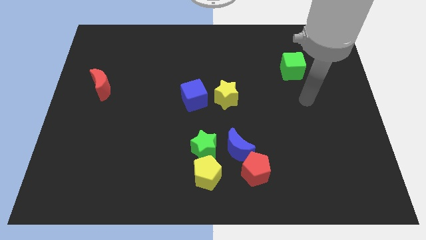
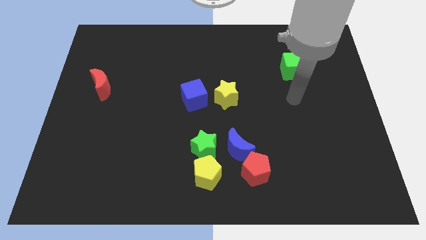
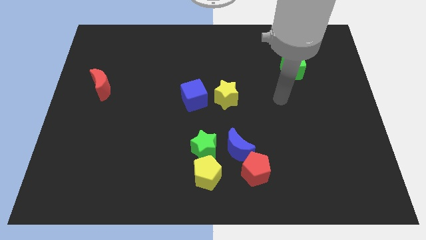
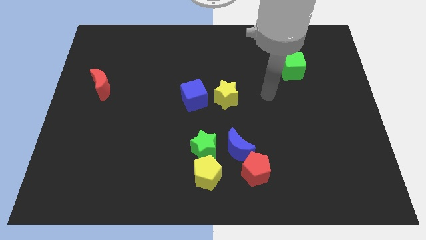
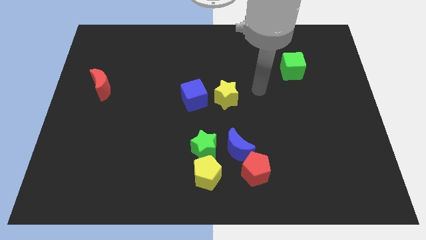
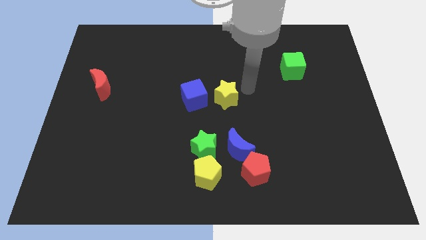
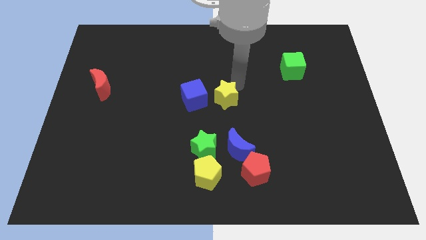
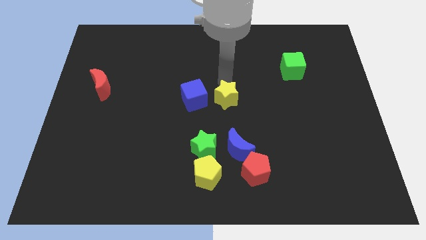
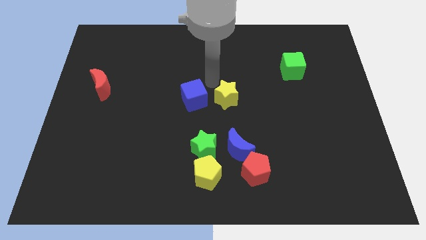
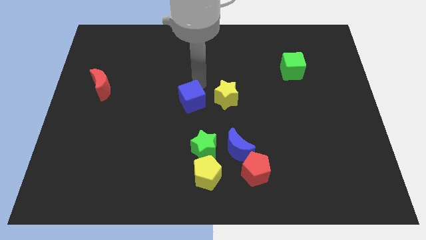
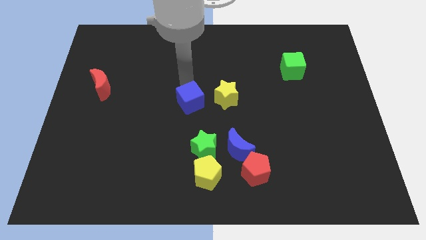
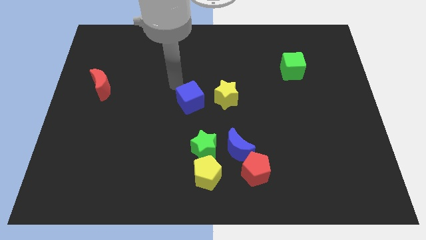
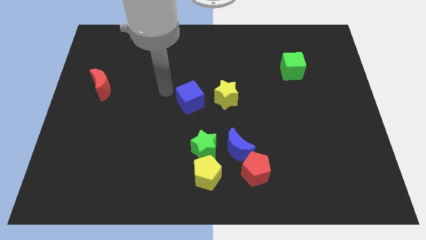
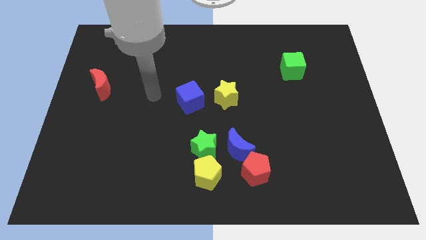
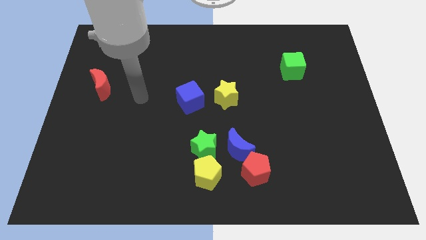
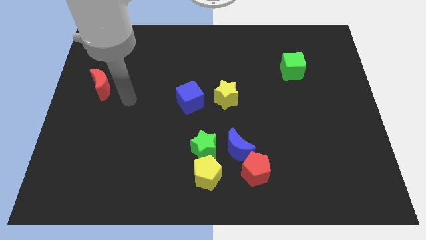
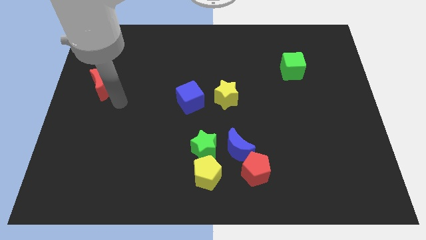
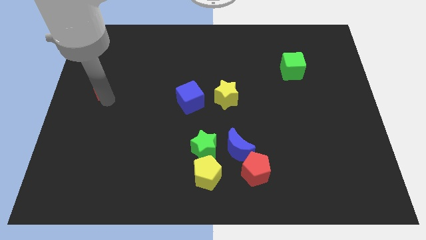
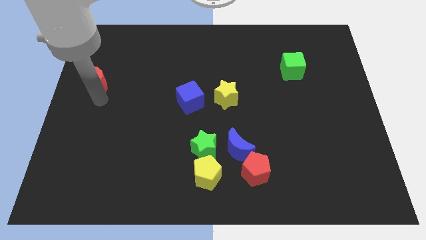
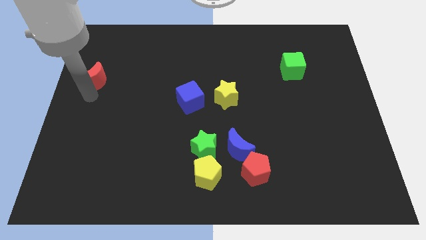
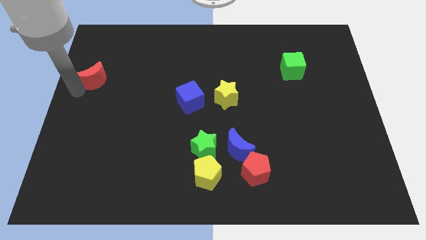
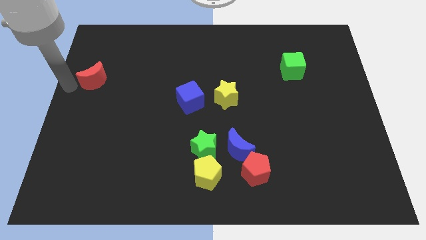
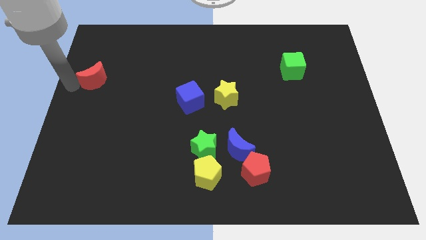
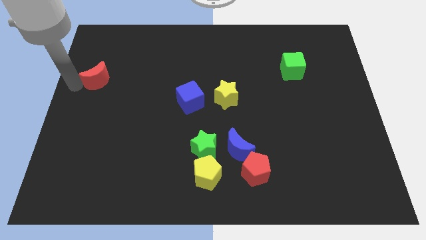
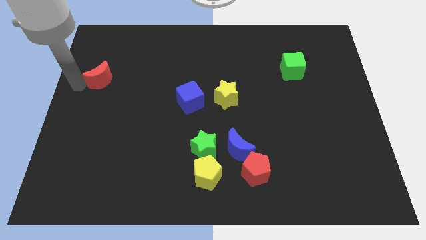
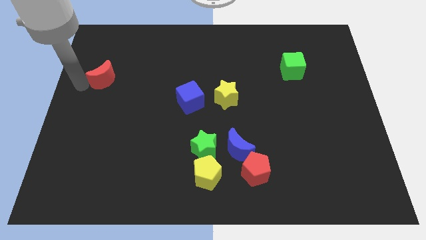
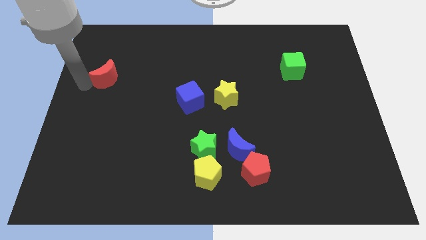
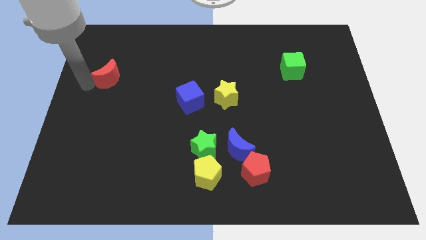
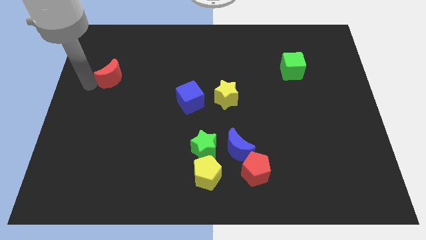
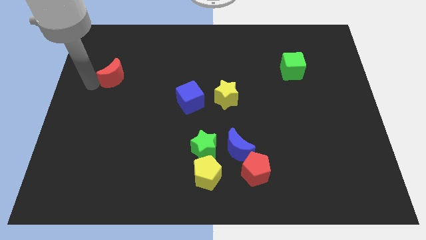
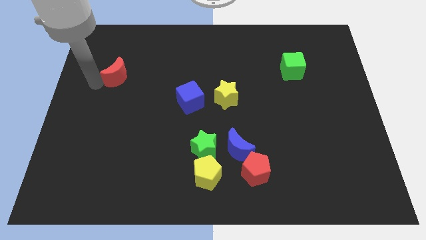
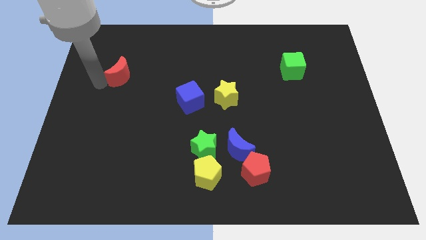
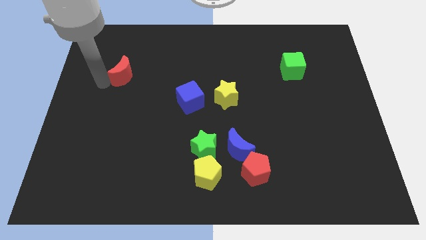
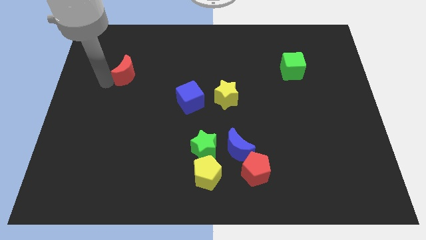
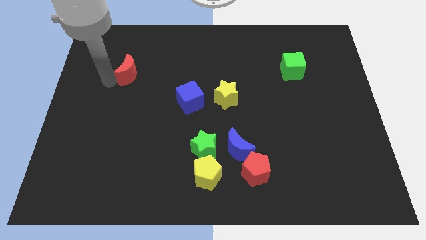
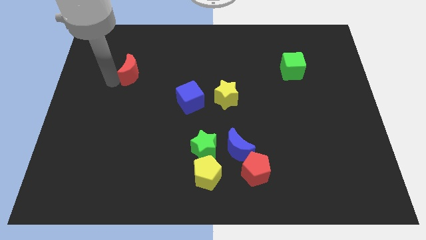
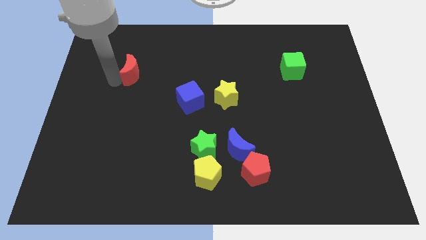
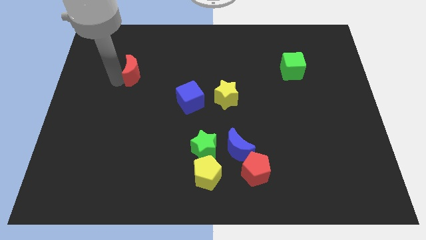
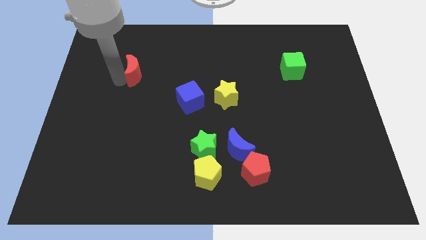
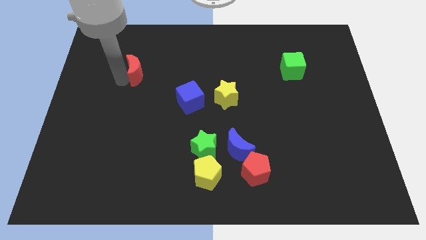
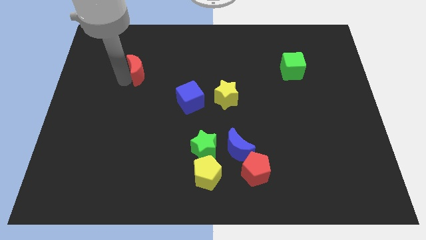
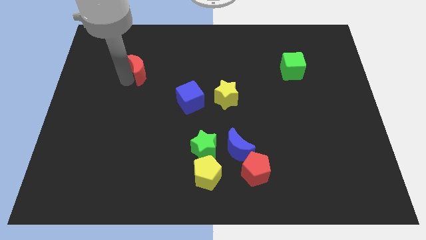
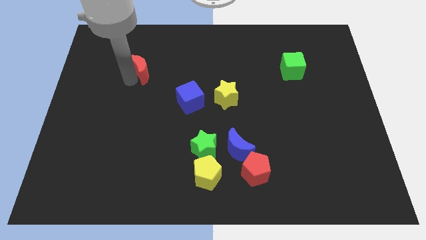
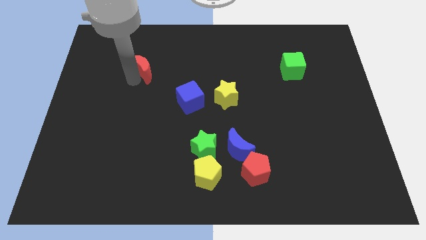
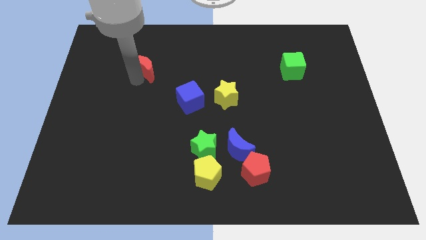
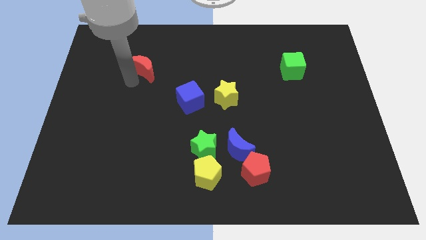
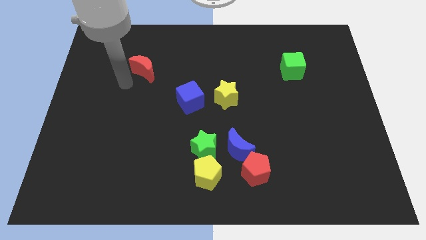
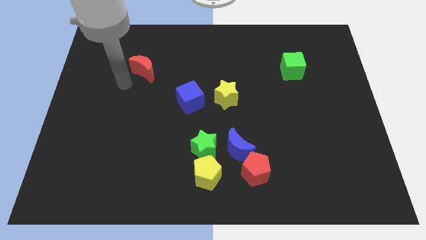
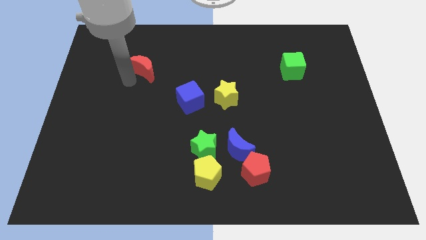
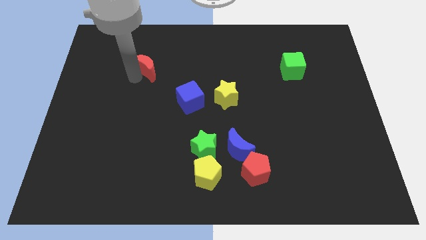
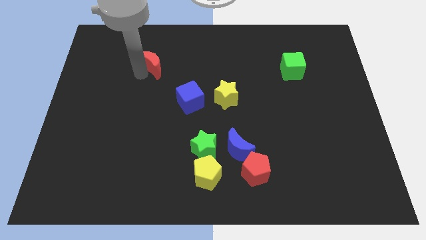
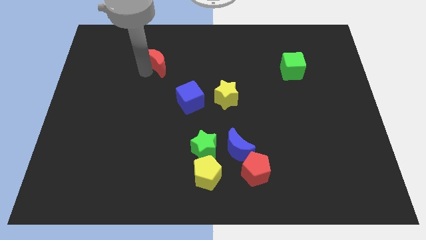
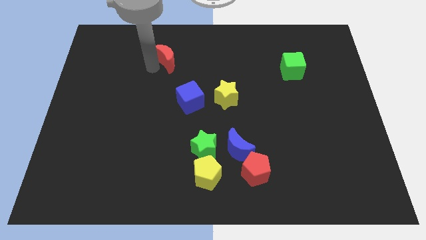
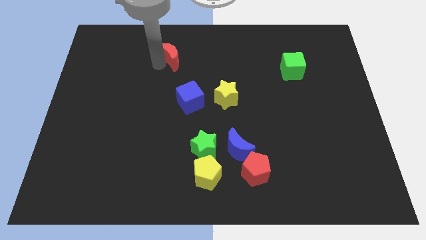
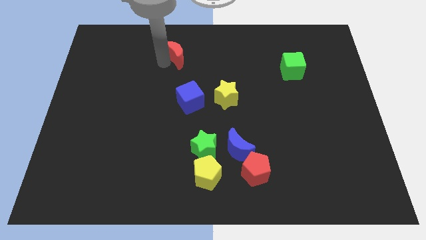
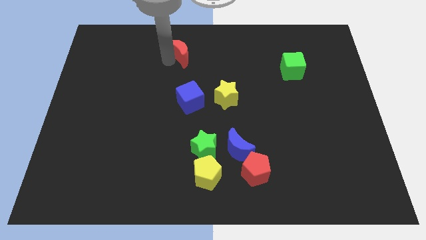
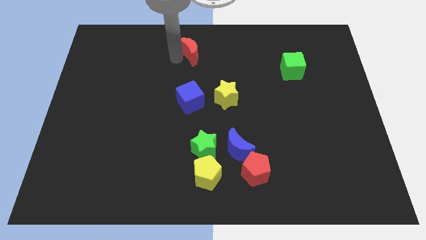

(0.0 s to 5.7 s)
put the red moon to the towards your base

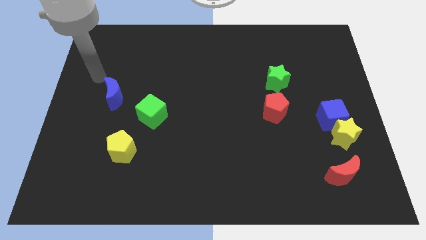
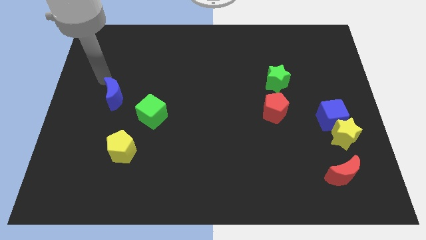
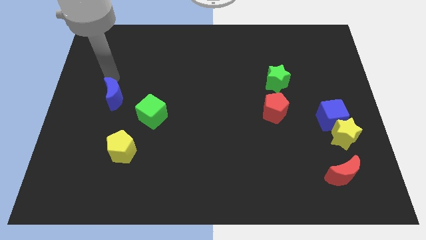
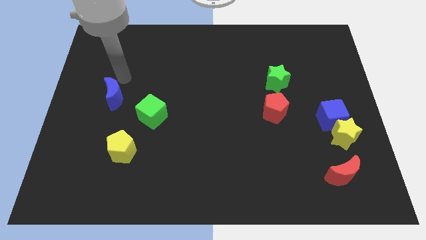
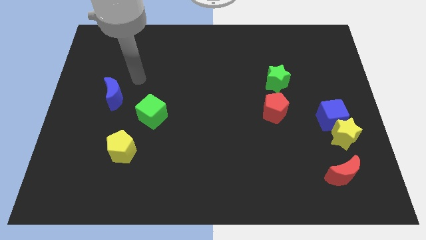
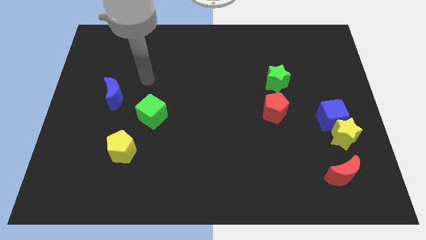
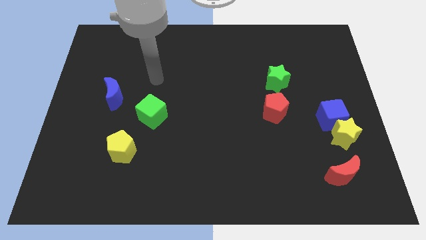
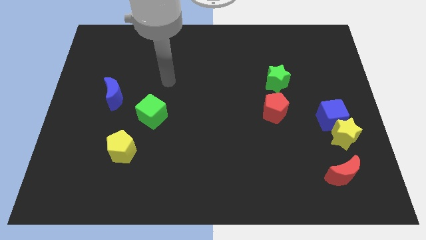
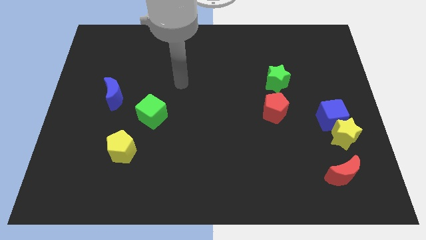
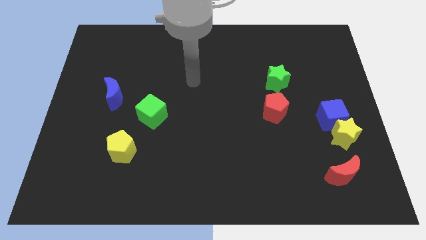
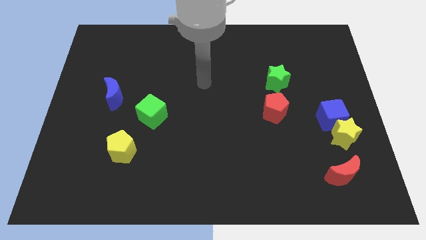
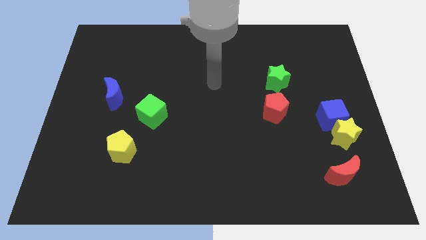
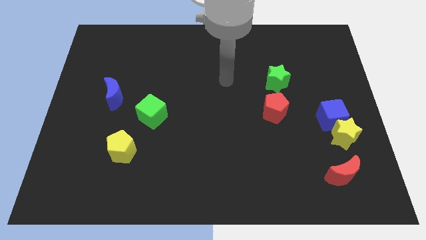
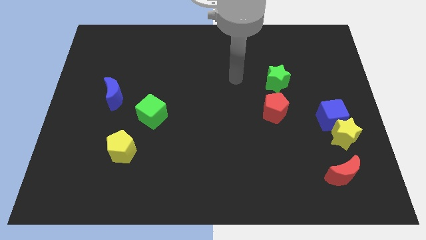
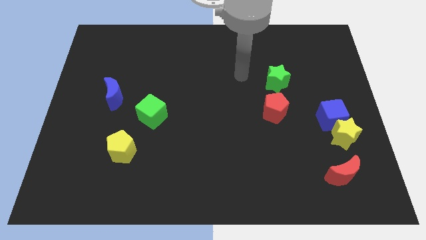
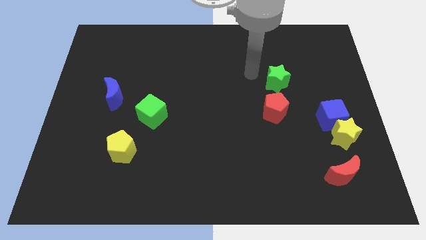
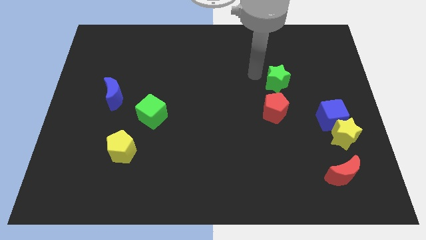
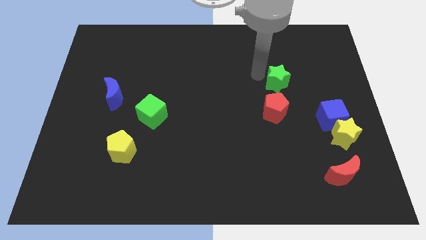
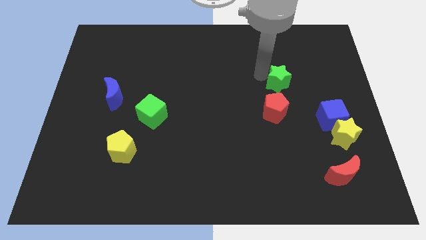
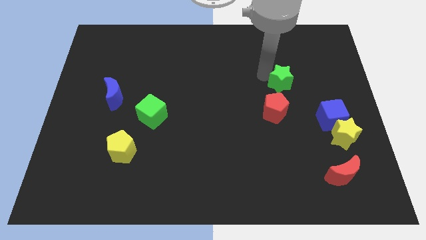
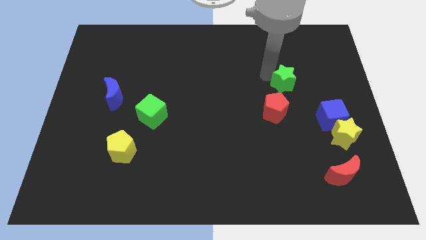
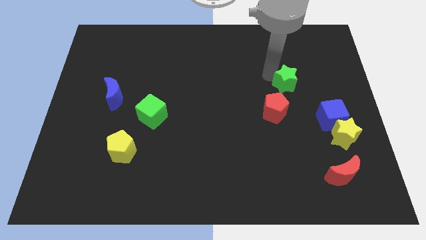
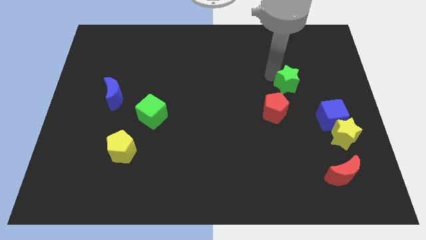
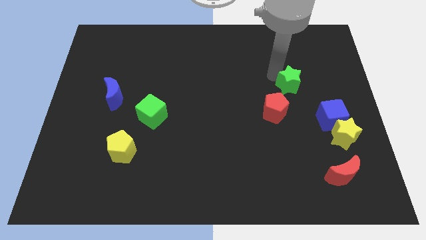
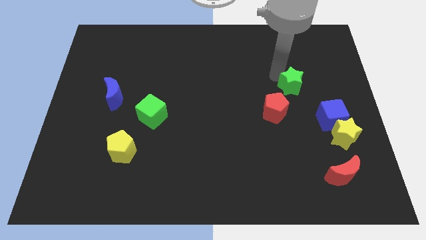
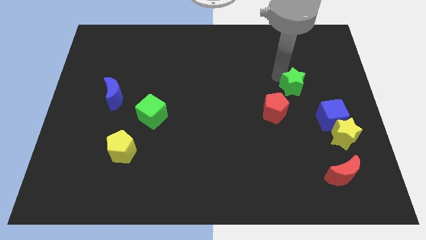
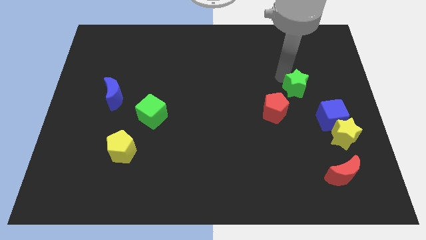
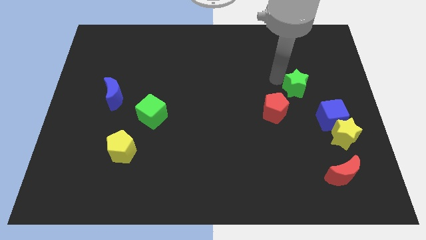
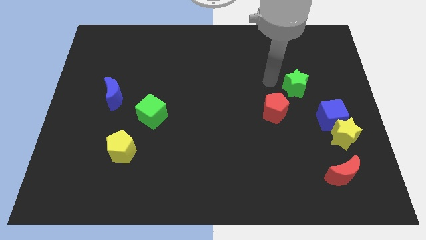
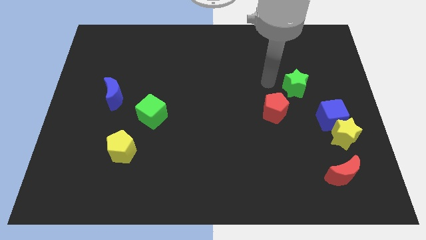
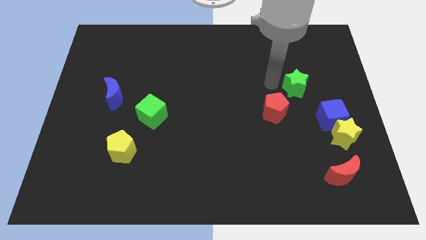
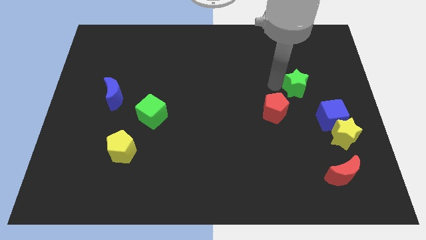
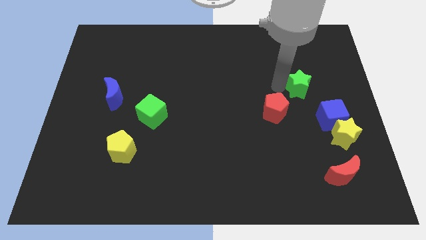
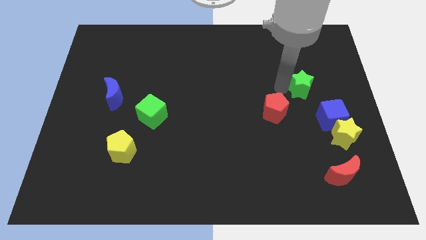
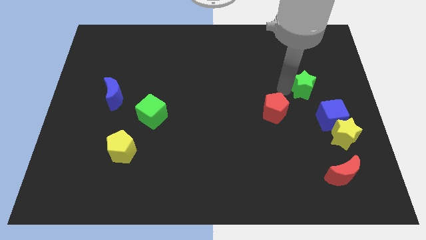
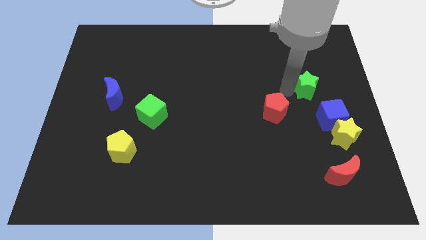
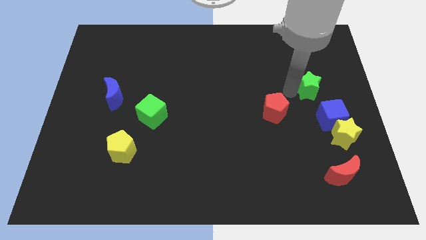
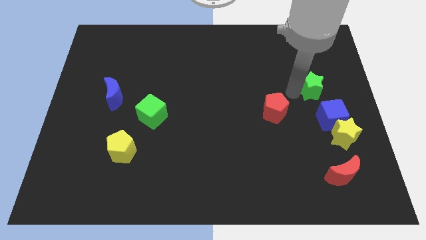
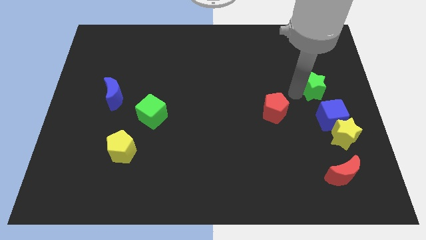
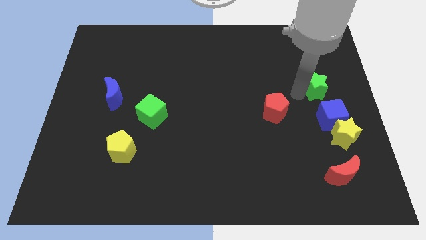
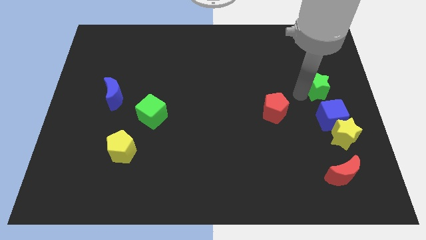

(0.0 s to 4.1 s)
slide the green star to the center right
